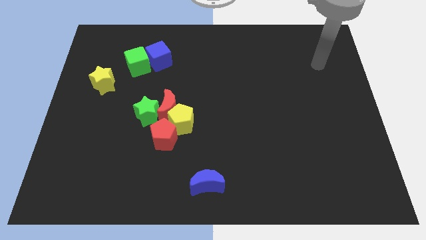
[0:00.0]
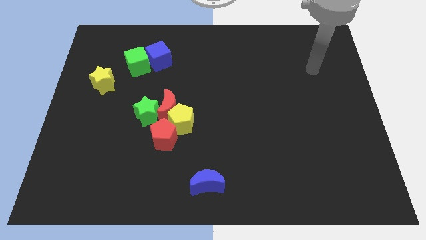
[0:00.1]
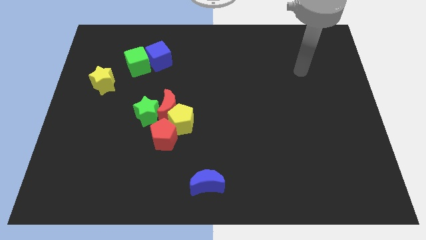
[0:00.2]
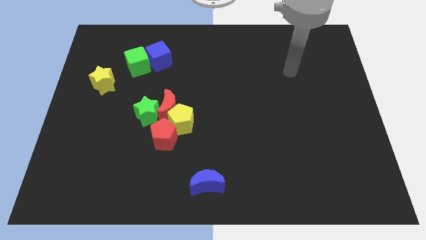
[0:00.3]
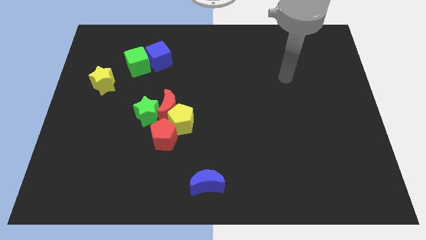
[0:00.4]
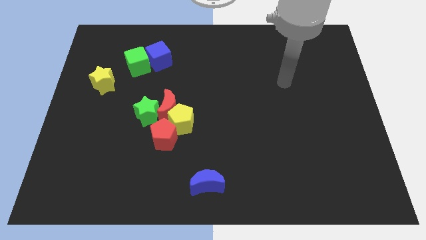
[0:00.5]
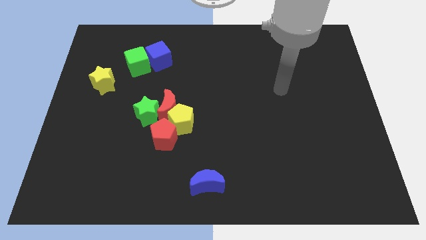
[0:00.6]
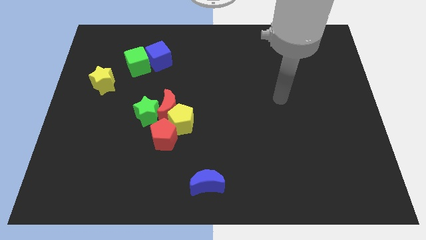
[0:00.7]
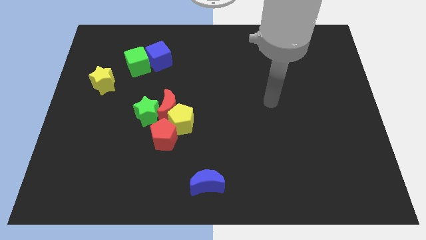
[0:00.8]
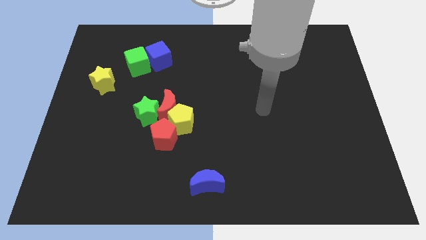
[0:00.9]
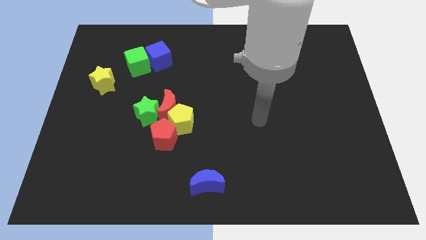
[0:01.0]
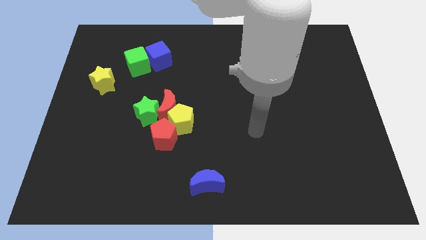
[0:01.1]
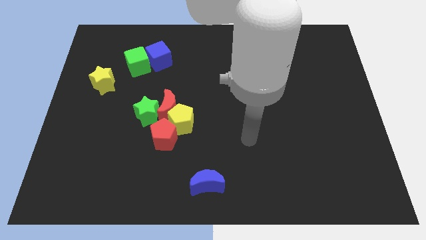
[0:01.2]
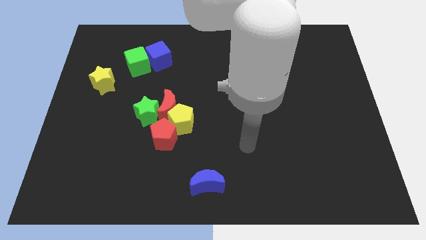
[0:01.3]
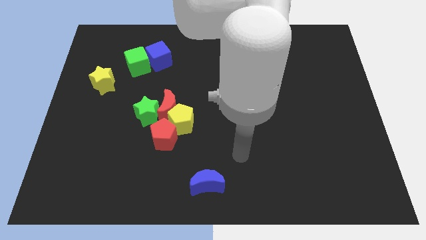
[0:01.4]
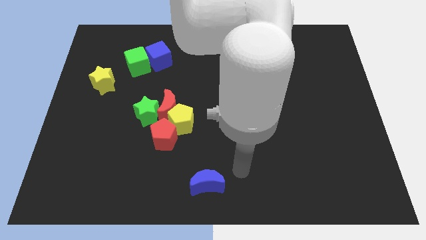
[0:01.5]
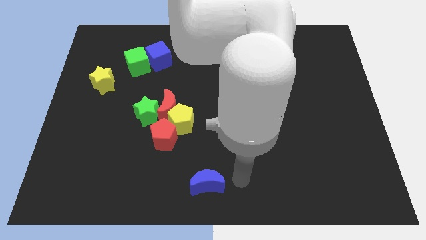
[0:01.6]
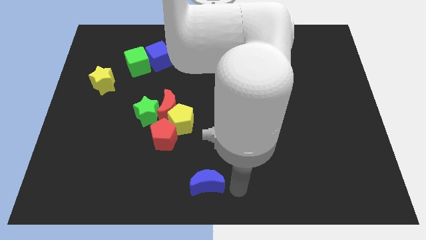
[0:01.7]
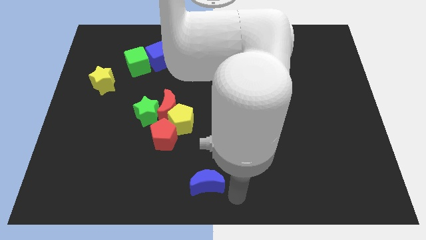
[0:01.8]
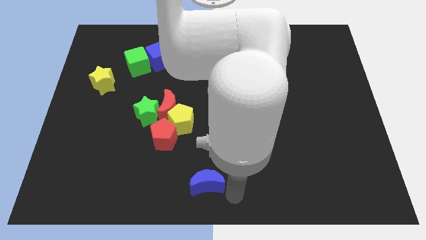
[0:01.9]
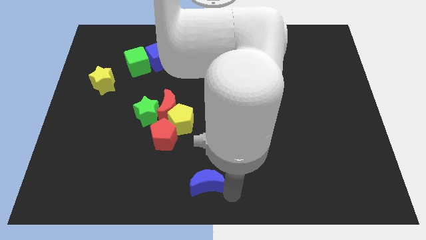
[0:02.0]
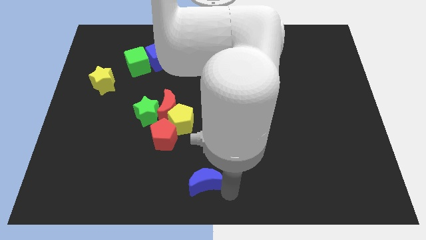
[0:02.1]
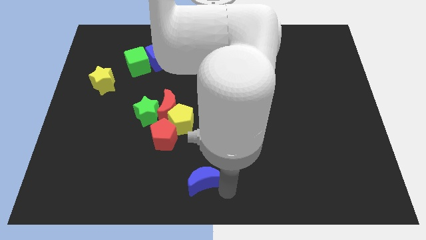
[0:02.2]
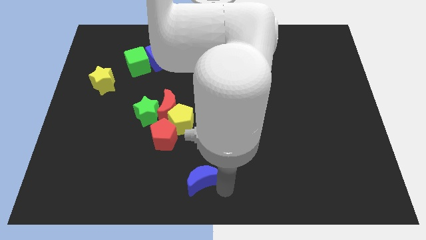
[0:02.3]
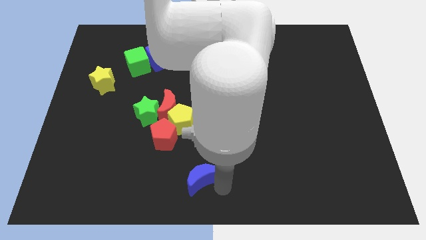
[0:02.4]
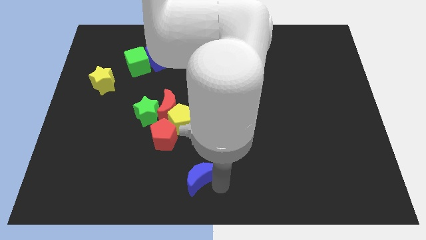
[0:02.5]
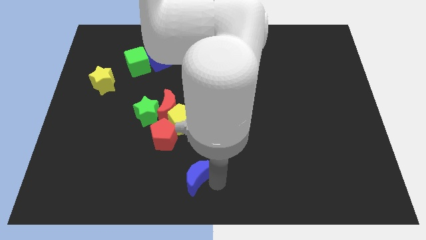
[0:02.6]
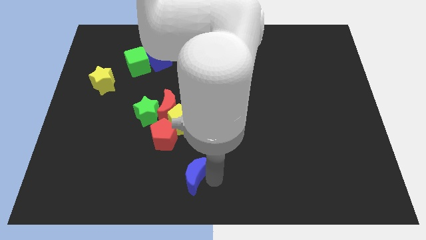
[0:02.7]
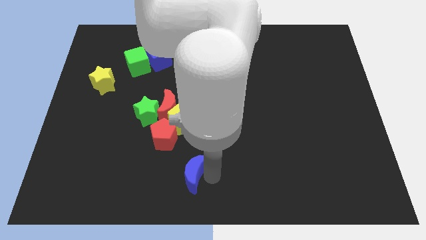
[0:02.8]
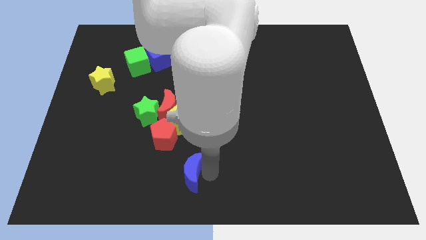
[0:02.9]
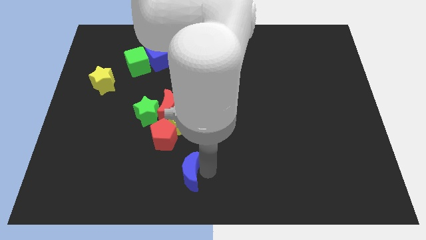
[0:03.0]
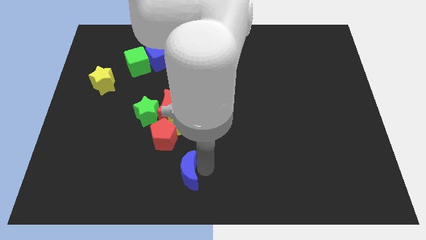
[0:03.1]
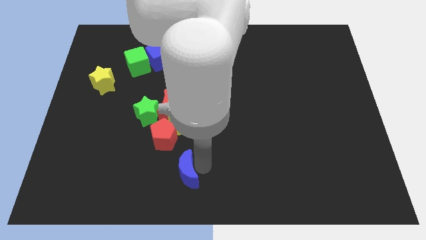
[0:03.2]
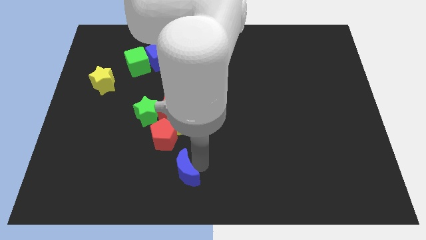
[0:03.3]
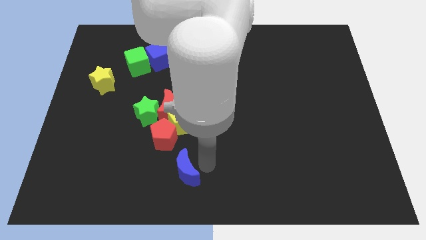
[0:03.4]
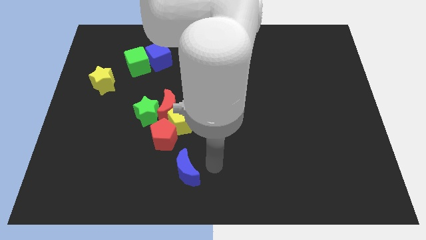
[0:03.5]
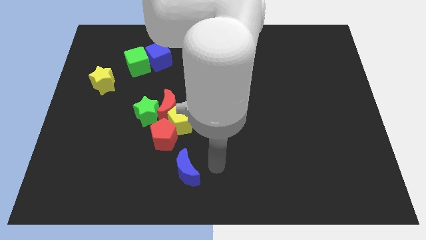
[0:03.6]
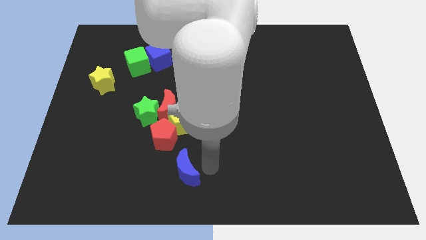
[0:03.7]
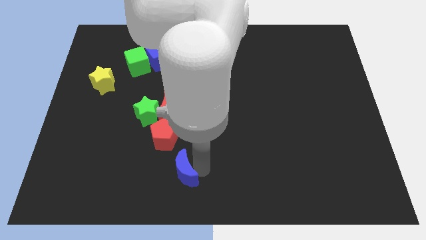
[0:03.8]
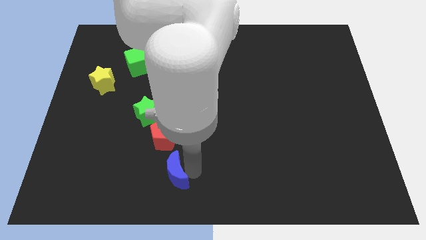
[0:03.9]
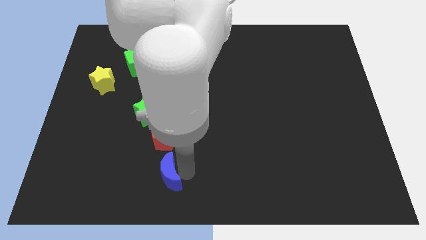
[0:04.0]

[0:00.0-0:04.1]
push the blue moon to the left somewhat

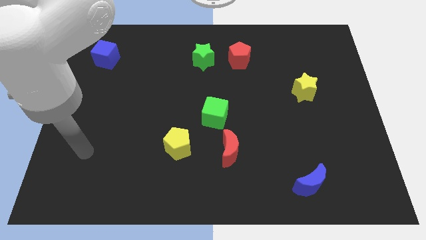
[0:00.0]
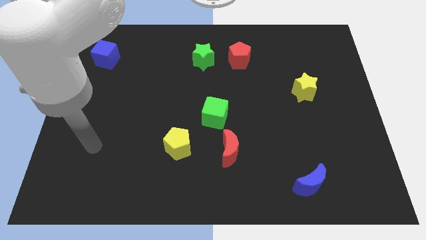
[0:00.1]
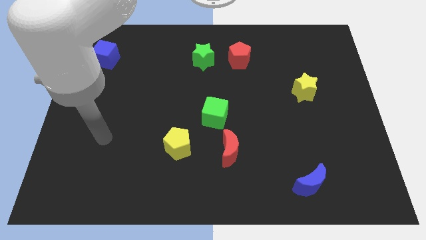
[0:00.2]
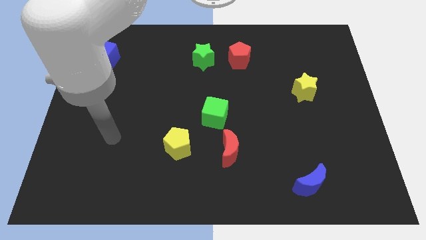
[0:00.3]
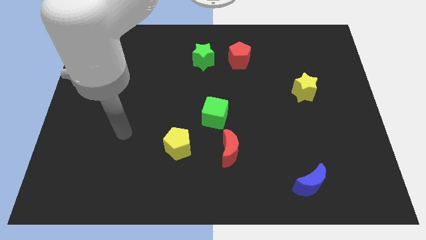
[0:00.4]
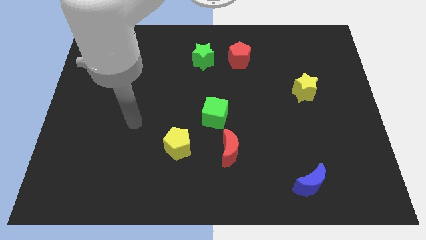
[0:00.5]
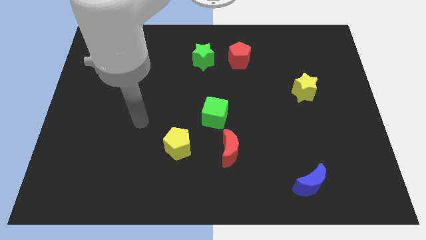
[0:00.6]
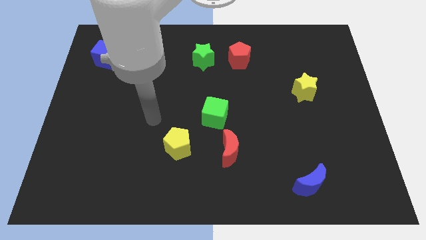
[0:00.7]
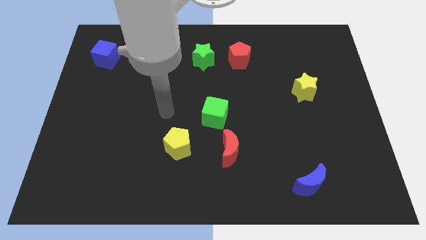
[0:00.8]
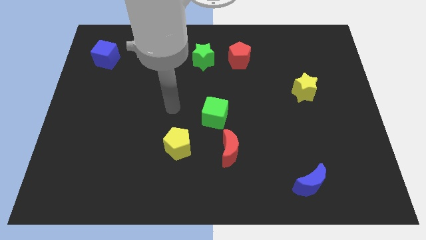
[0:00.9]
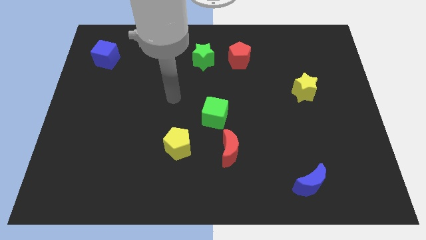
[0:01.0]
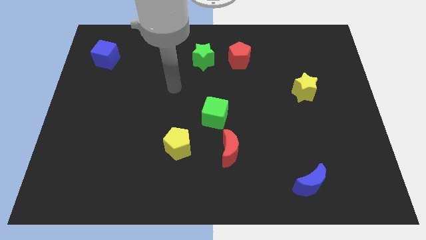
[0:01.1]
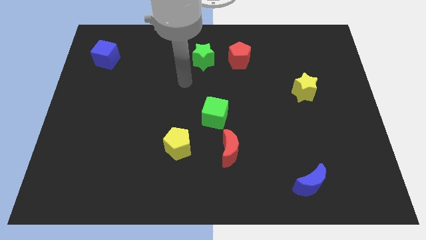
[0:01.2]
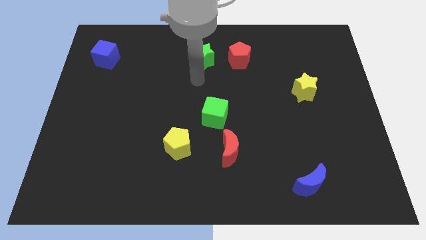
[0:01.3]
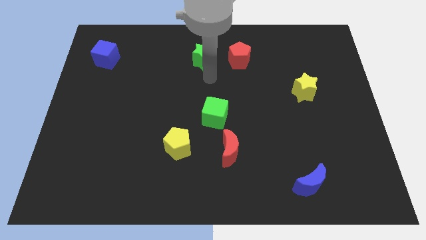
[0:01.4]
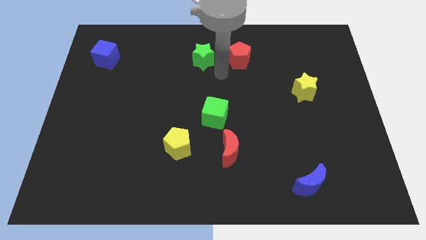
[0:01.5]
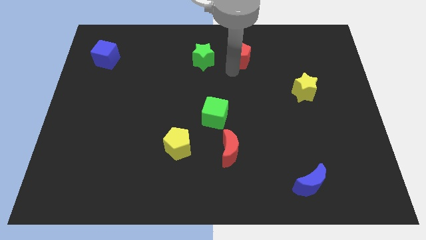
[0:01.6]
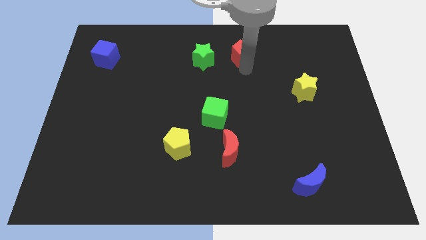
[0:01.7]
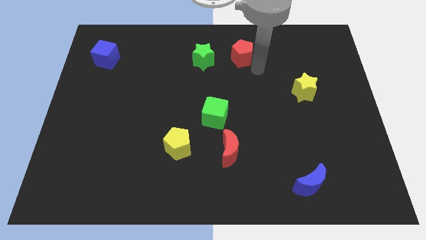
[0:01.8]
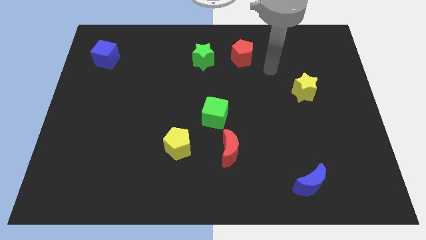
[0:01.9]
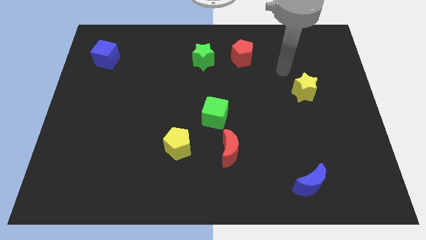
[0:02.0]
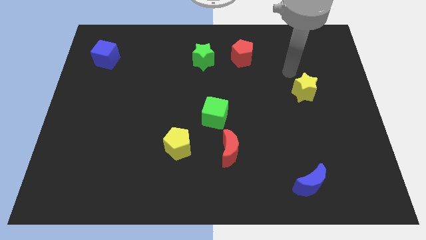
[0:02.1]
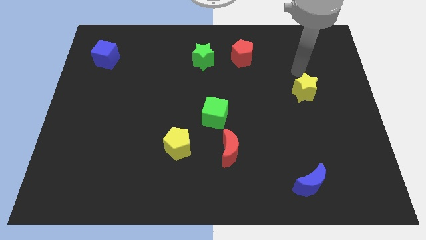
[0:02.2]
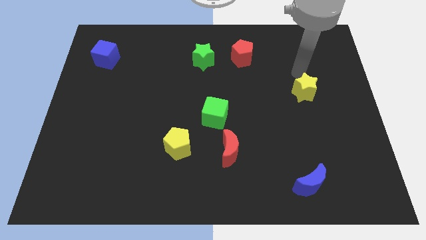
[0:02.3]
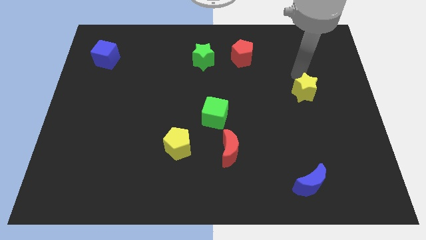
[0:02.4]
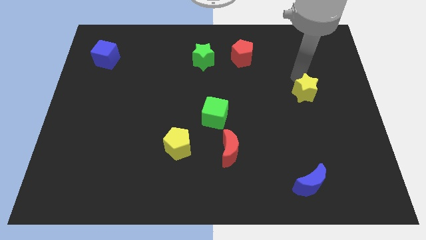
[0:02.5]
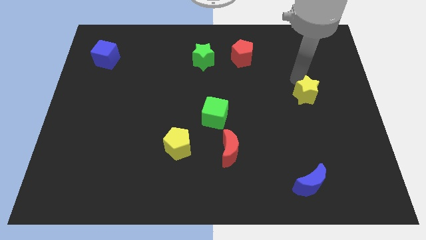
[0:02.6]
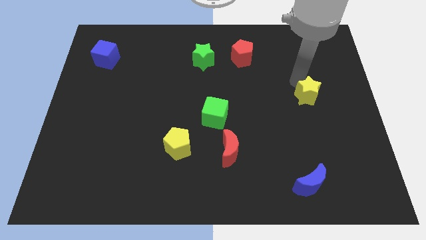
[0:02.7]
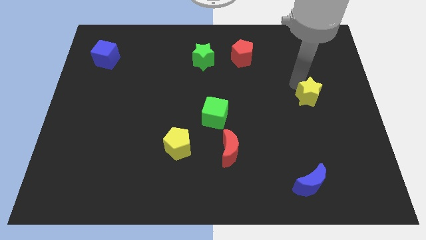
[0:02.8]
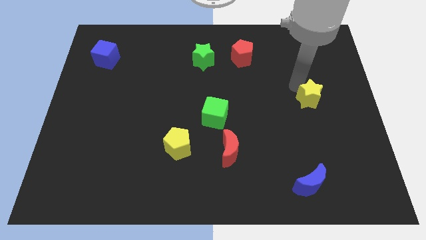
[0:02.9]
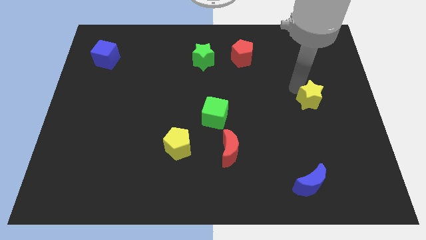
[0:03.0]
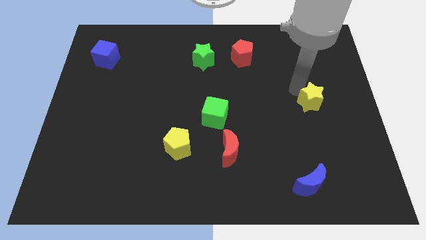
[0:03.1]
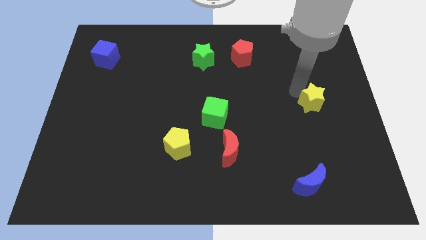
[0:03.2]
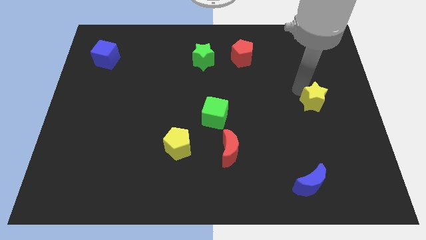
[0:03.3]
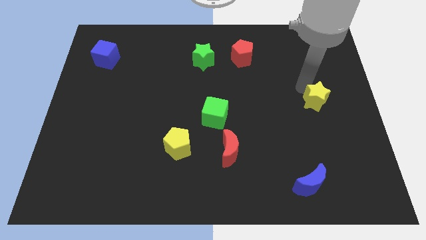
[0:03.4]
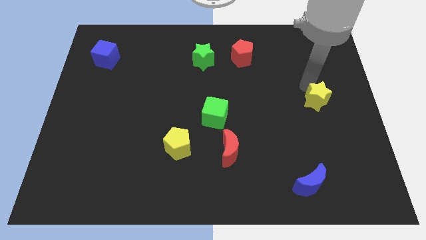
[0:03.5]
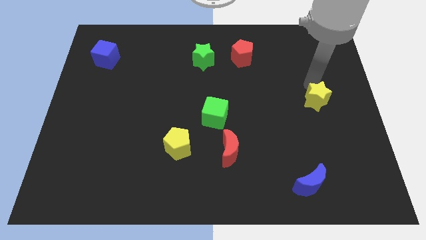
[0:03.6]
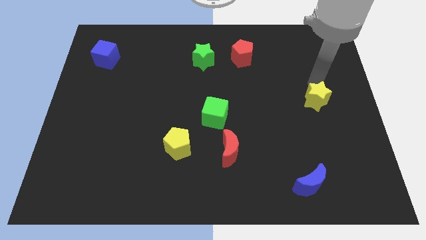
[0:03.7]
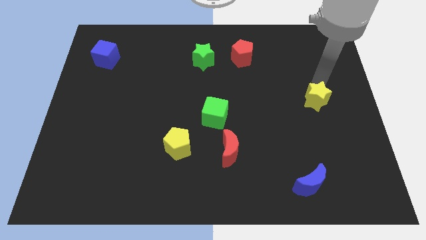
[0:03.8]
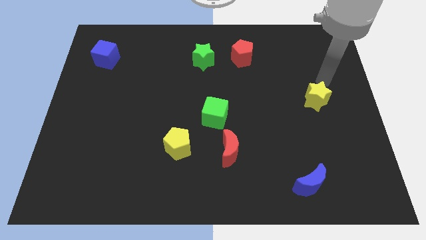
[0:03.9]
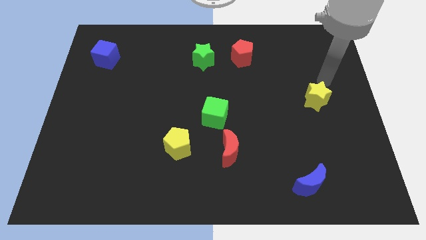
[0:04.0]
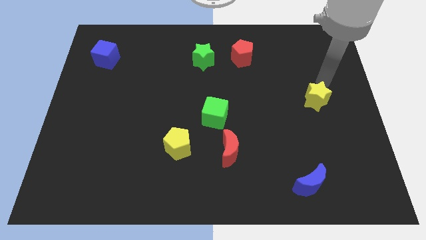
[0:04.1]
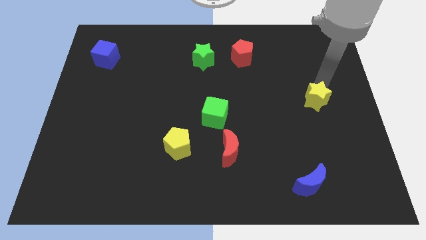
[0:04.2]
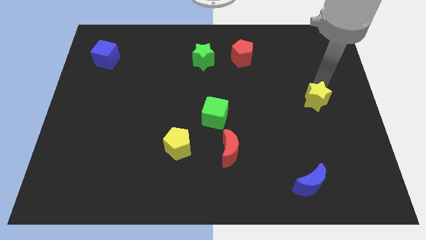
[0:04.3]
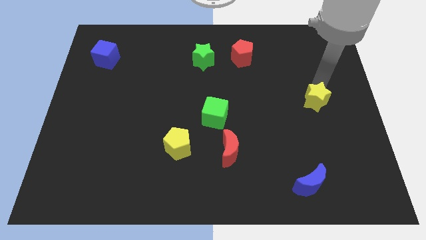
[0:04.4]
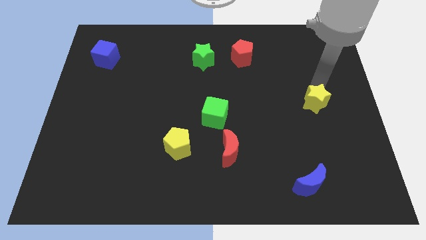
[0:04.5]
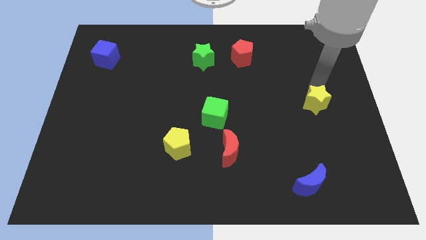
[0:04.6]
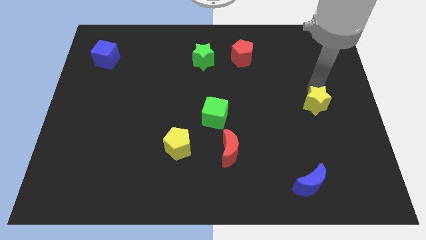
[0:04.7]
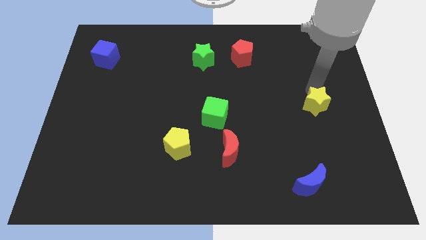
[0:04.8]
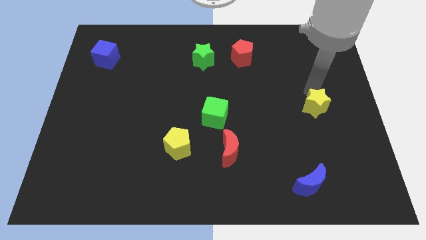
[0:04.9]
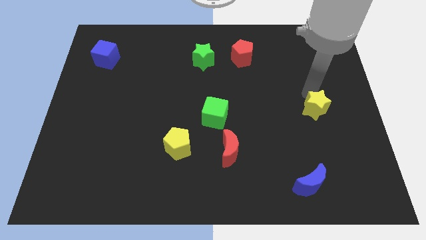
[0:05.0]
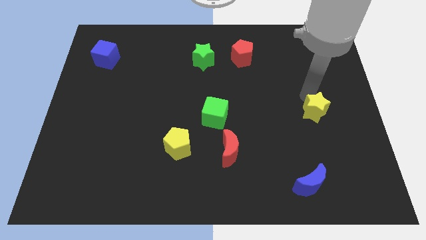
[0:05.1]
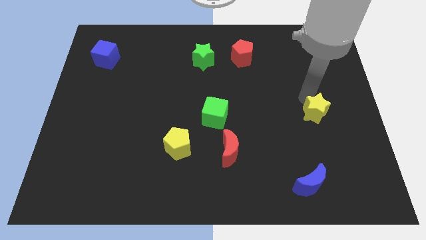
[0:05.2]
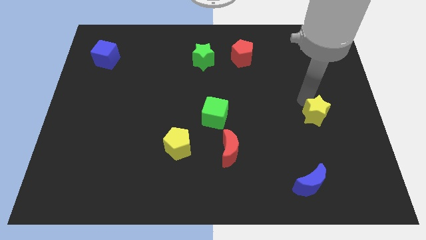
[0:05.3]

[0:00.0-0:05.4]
slightly move the yellow star downwards
